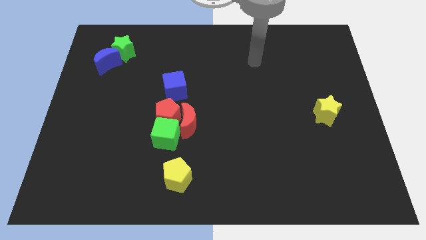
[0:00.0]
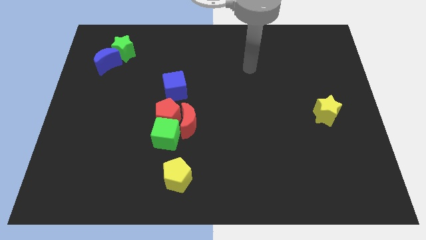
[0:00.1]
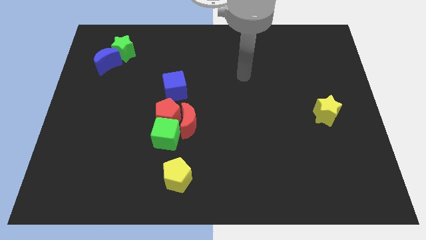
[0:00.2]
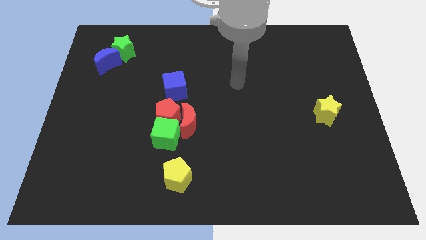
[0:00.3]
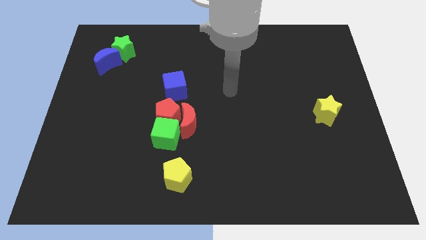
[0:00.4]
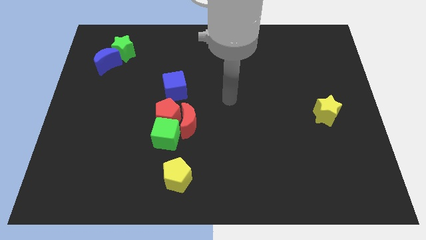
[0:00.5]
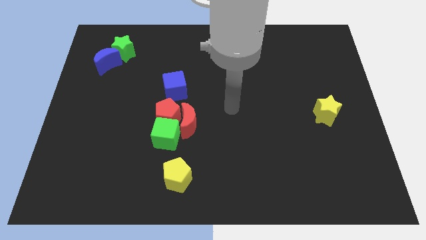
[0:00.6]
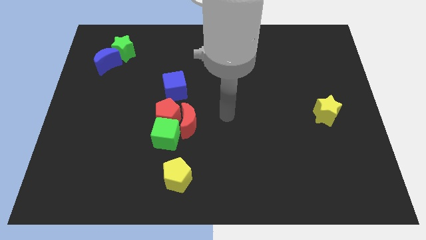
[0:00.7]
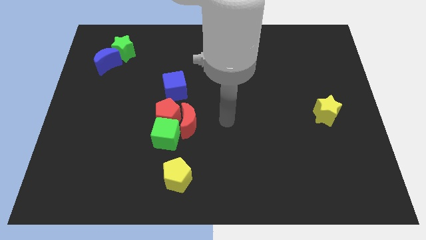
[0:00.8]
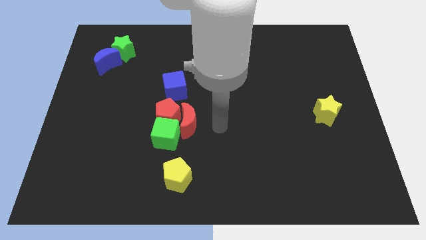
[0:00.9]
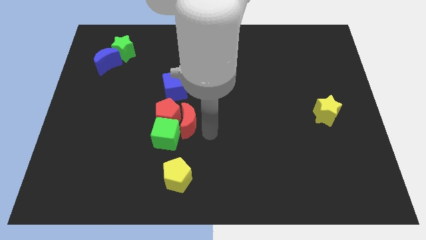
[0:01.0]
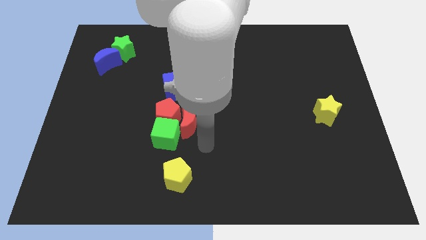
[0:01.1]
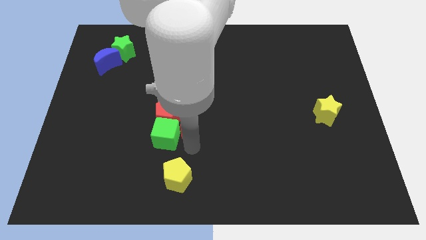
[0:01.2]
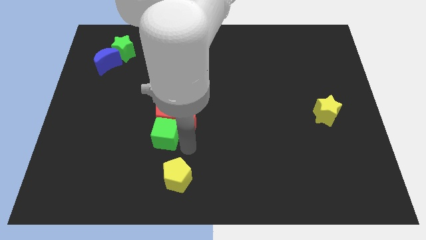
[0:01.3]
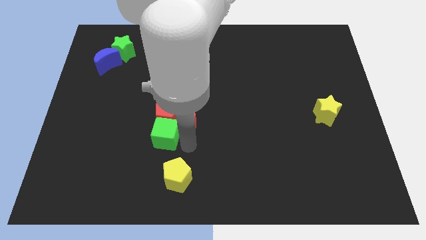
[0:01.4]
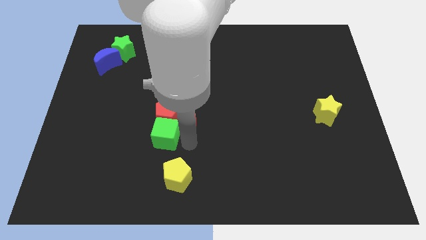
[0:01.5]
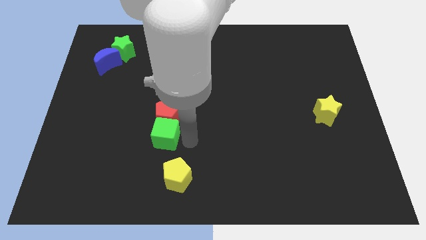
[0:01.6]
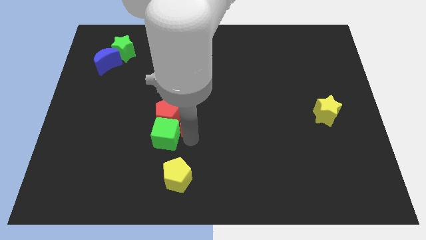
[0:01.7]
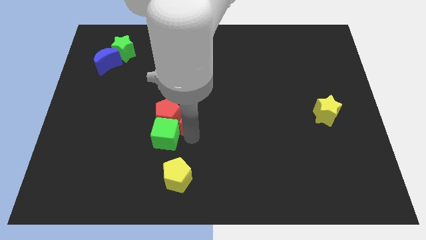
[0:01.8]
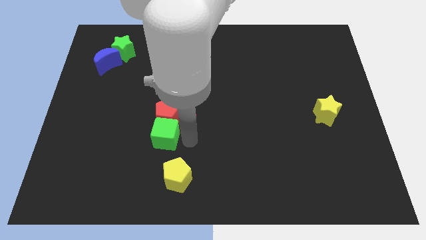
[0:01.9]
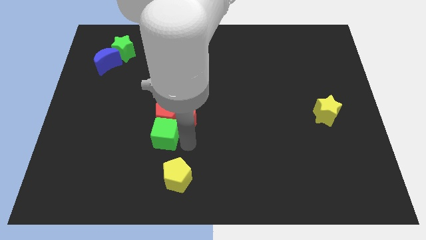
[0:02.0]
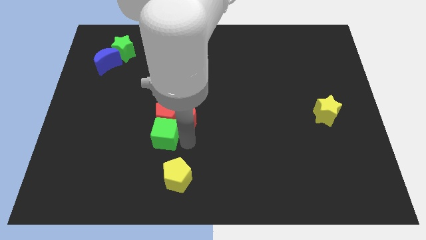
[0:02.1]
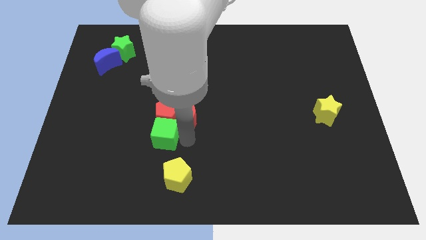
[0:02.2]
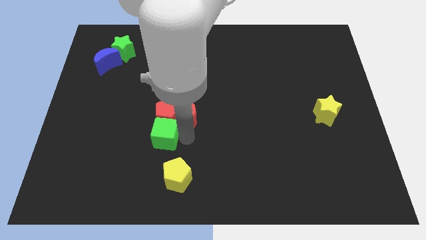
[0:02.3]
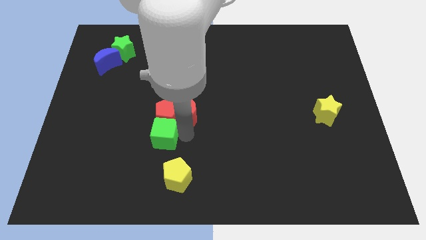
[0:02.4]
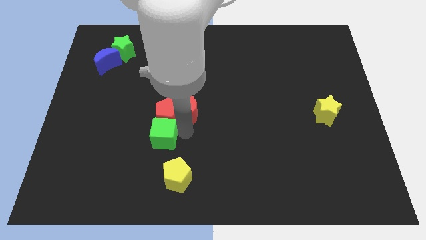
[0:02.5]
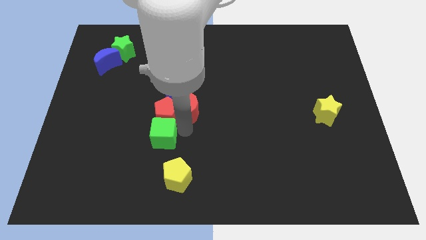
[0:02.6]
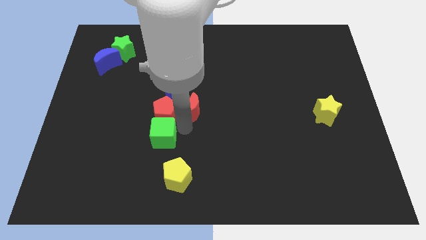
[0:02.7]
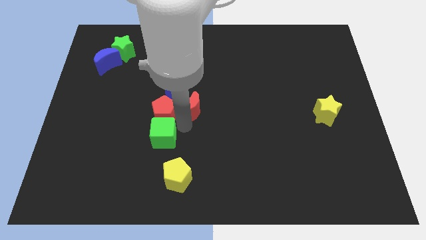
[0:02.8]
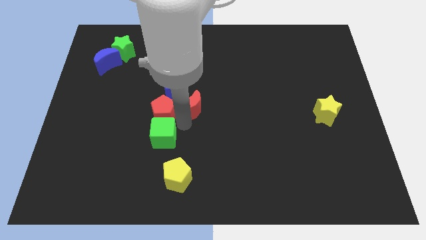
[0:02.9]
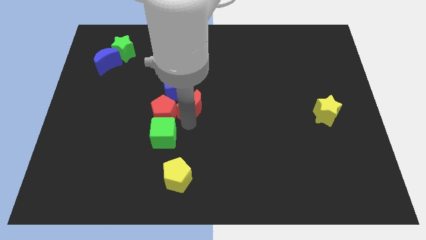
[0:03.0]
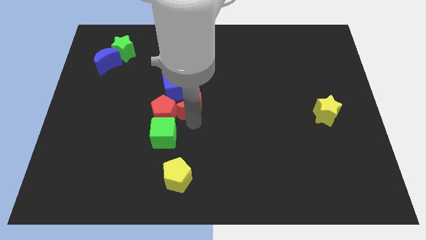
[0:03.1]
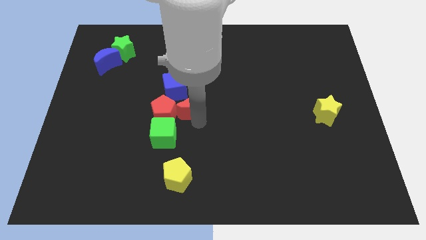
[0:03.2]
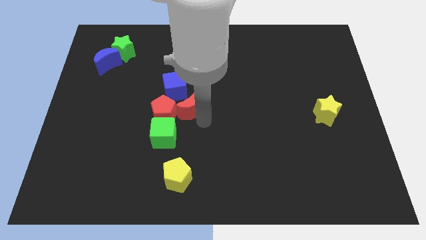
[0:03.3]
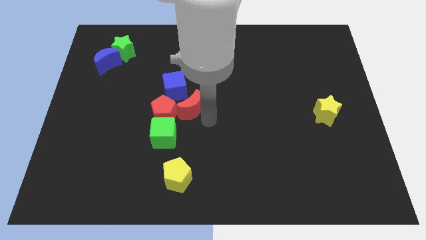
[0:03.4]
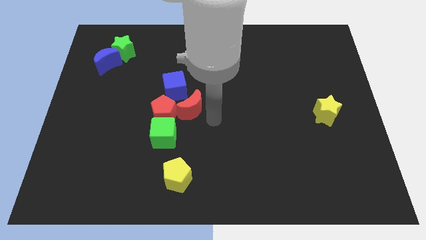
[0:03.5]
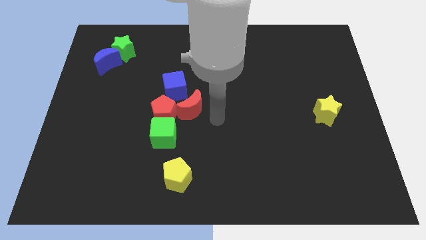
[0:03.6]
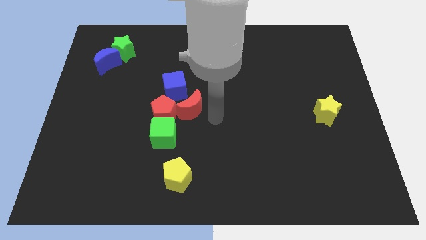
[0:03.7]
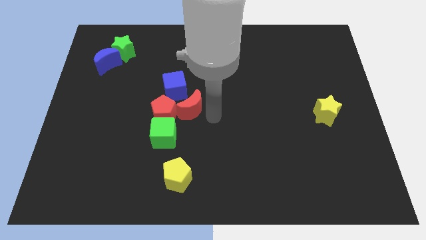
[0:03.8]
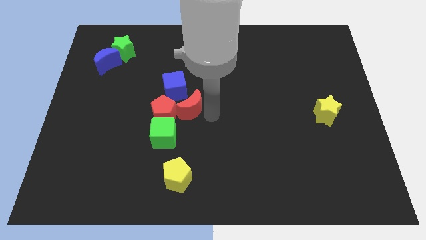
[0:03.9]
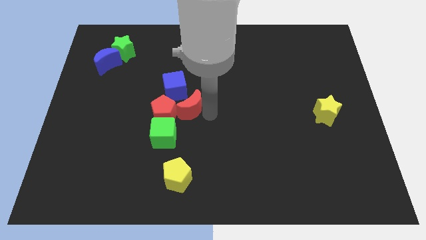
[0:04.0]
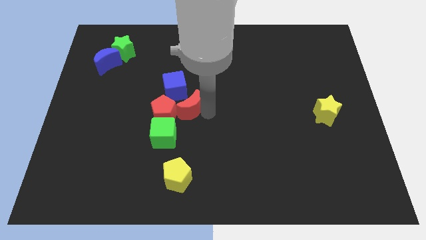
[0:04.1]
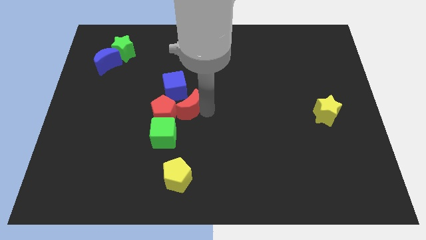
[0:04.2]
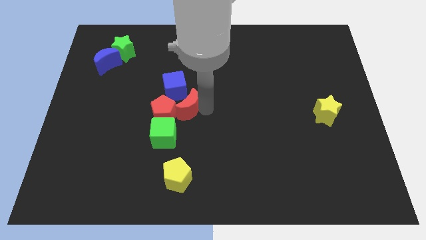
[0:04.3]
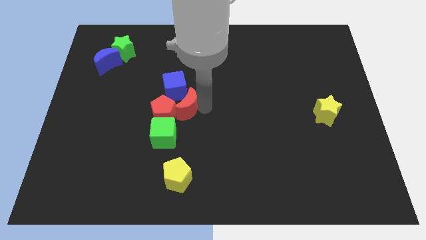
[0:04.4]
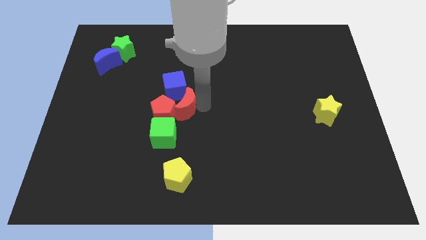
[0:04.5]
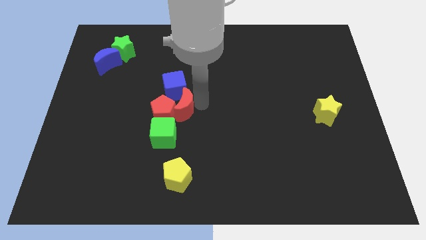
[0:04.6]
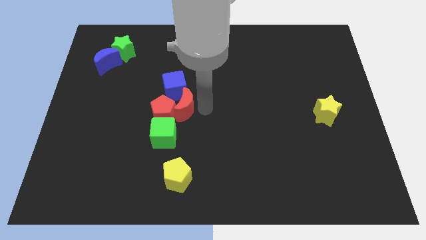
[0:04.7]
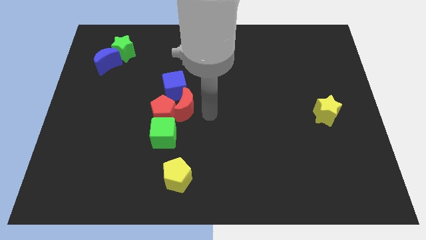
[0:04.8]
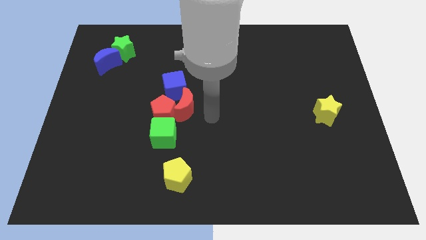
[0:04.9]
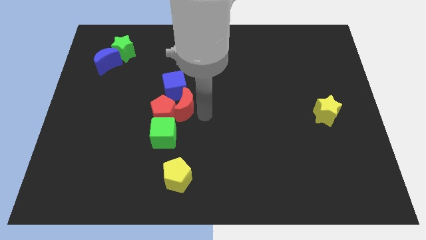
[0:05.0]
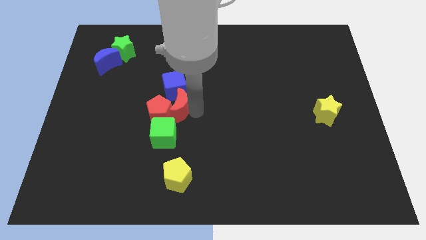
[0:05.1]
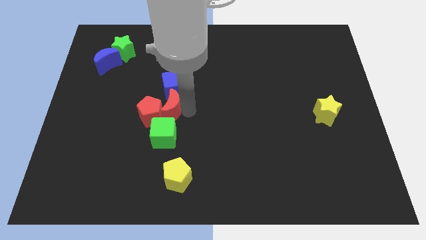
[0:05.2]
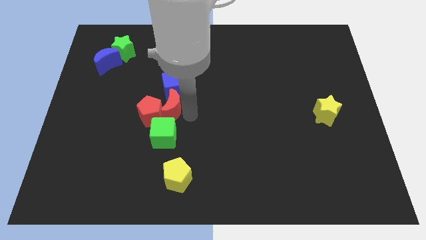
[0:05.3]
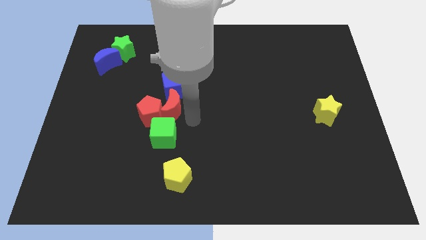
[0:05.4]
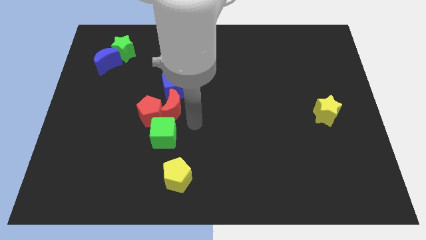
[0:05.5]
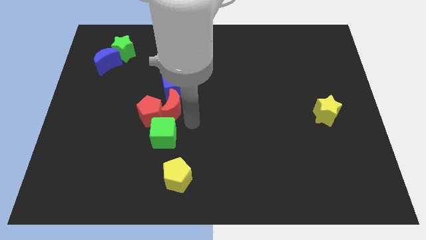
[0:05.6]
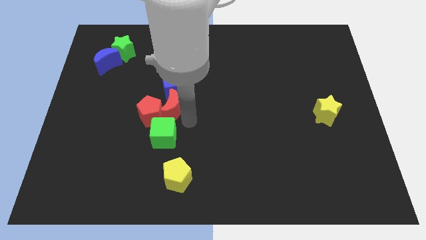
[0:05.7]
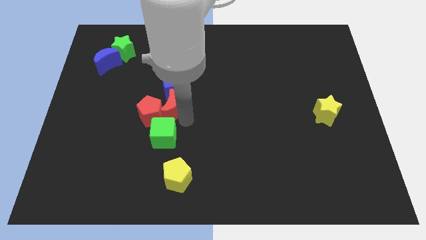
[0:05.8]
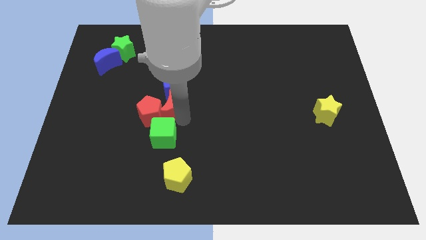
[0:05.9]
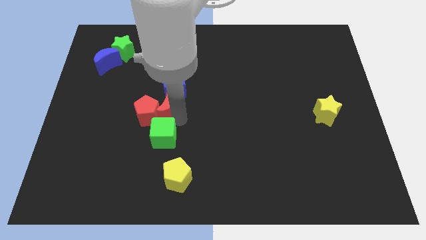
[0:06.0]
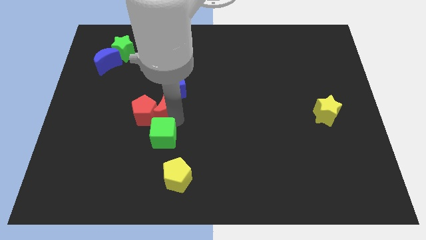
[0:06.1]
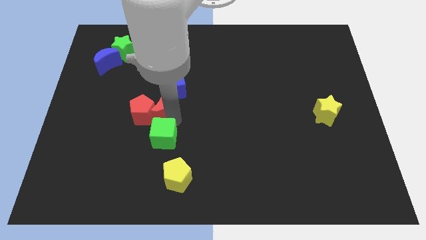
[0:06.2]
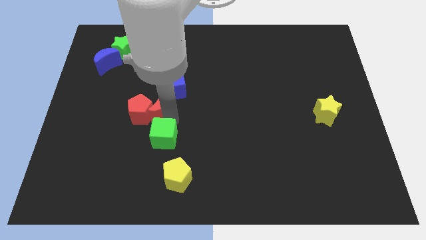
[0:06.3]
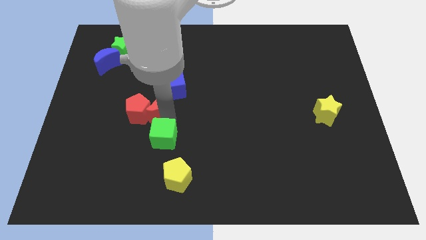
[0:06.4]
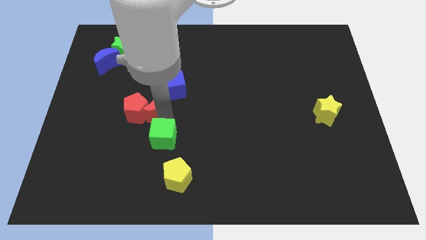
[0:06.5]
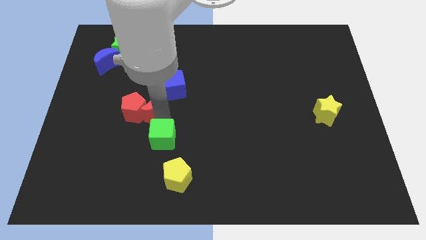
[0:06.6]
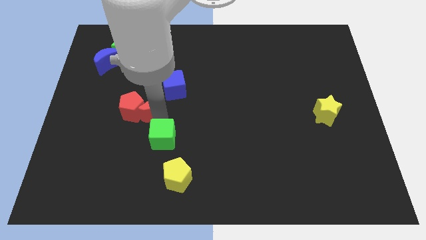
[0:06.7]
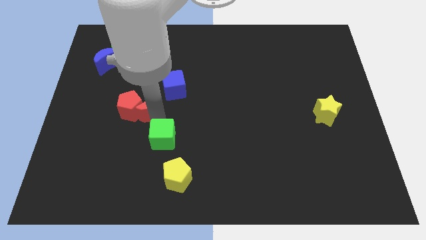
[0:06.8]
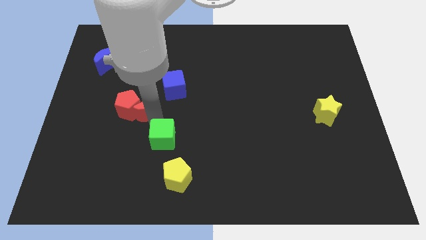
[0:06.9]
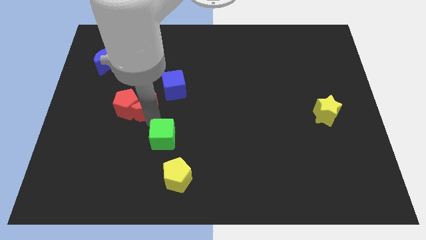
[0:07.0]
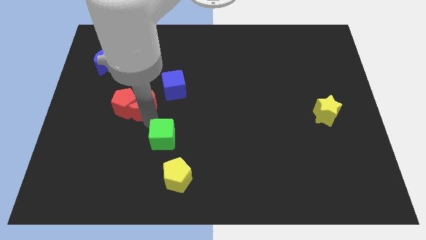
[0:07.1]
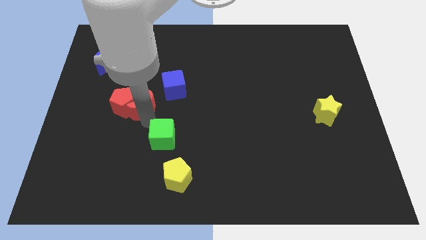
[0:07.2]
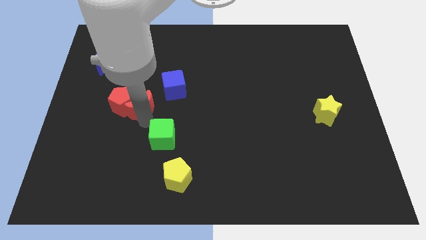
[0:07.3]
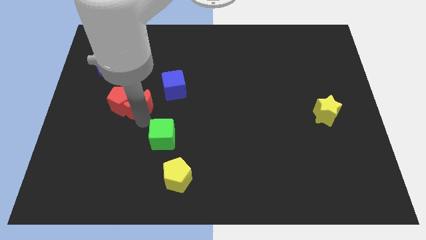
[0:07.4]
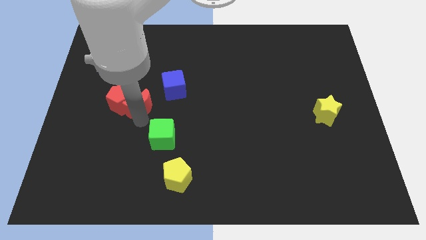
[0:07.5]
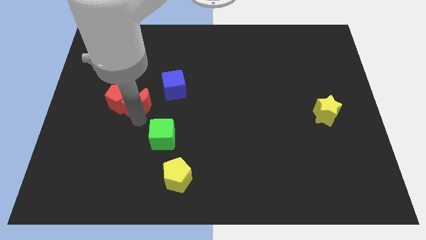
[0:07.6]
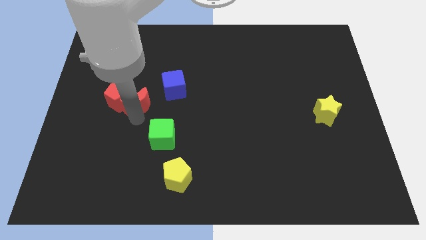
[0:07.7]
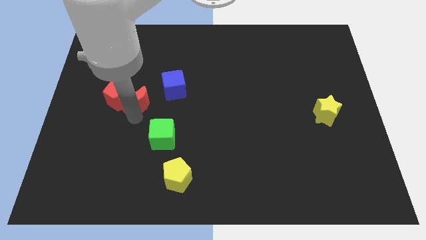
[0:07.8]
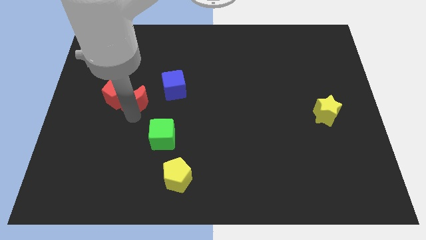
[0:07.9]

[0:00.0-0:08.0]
move the red moon to the left of the blue cube
